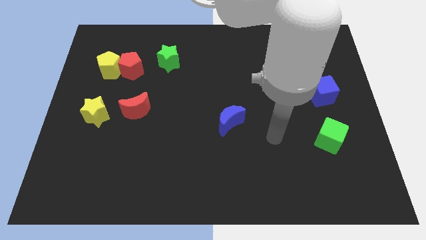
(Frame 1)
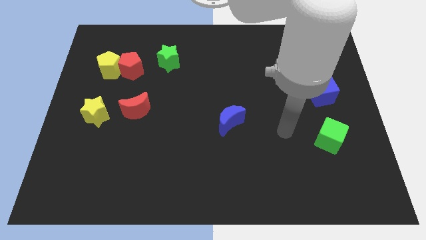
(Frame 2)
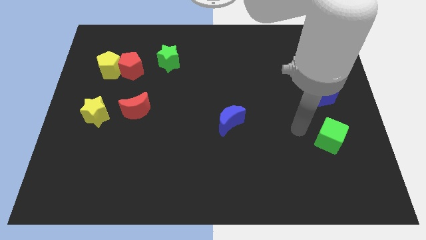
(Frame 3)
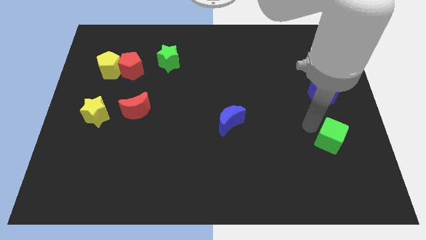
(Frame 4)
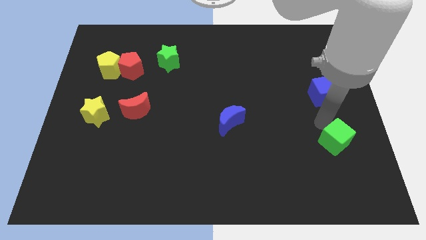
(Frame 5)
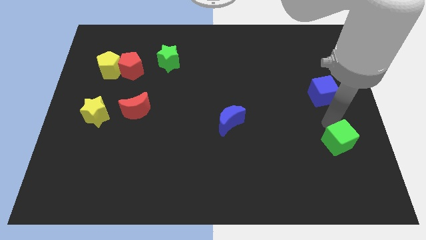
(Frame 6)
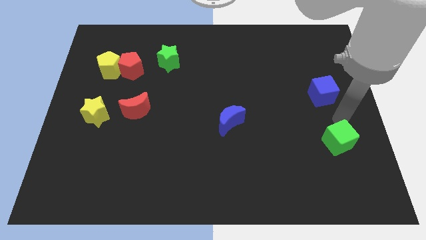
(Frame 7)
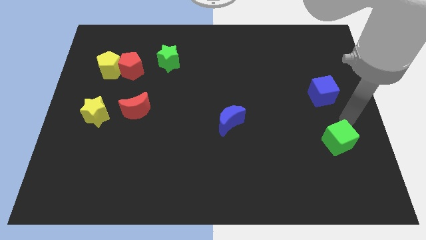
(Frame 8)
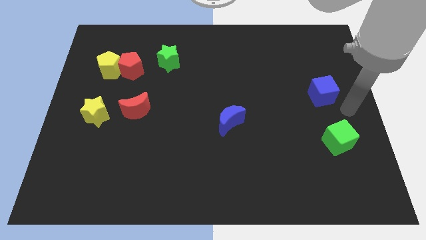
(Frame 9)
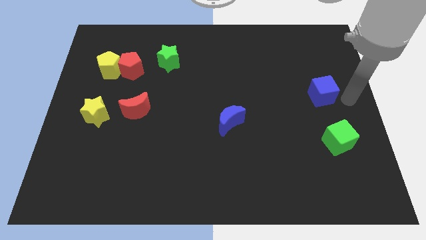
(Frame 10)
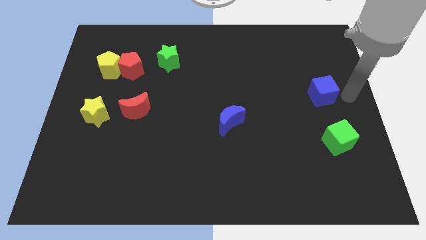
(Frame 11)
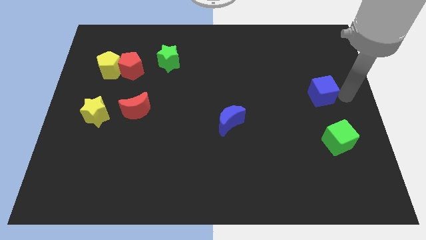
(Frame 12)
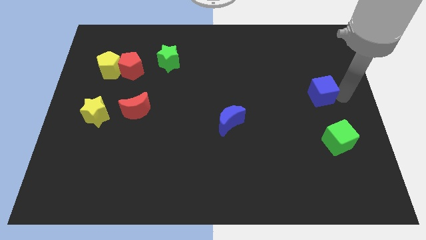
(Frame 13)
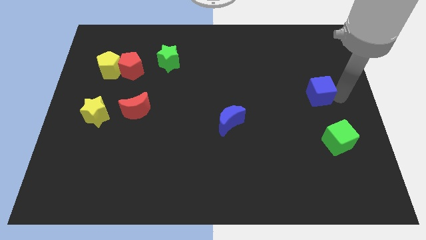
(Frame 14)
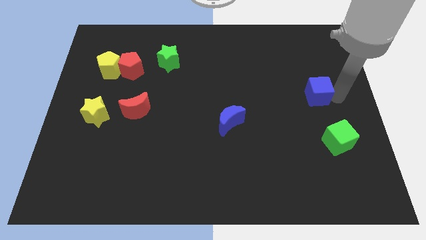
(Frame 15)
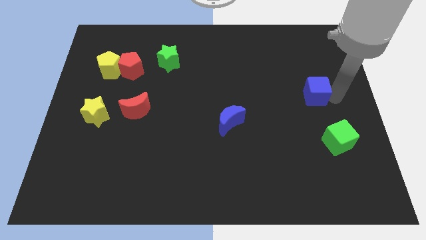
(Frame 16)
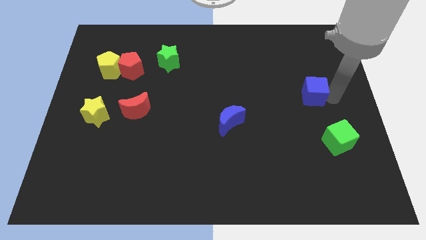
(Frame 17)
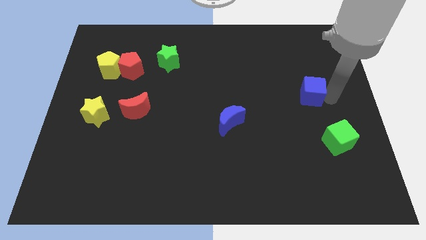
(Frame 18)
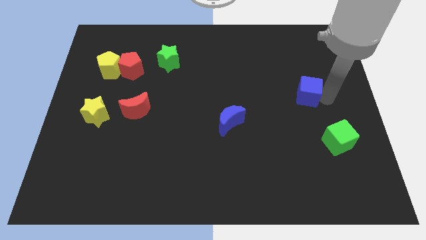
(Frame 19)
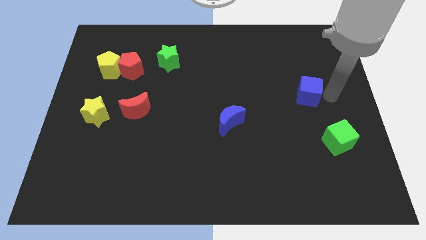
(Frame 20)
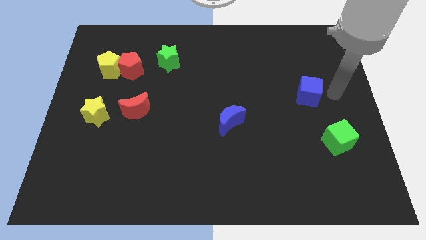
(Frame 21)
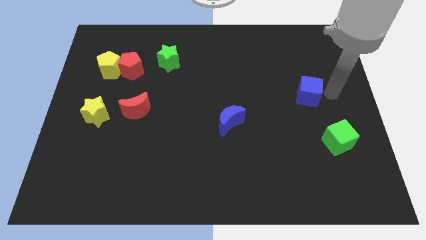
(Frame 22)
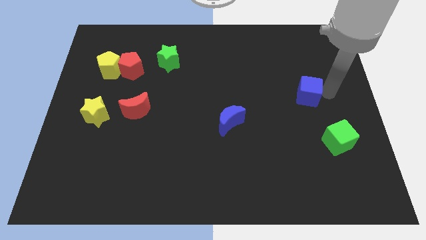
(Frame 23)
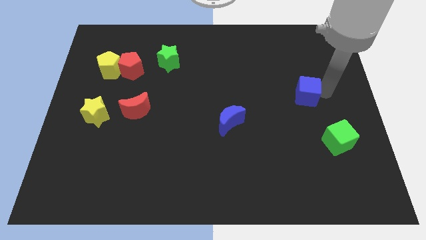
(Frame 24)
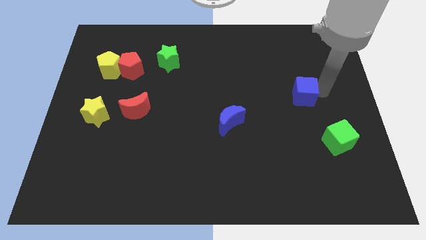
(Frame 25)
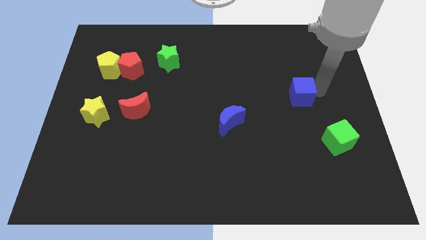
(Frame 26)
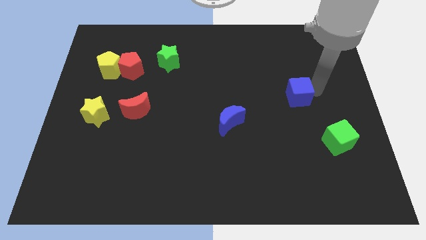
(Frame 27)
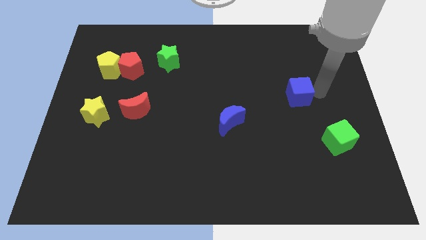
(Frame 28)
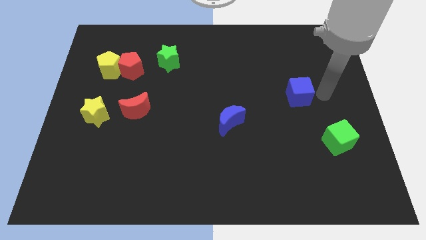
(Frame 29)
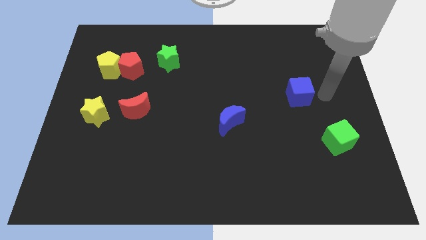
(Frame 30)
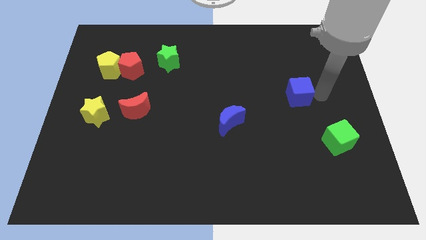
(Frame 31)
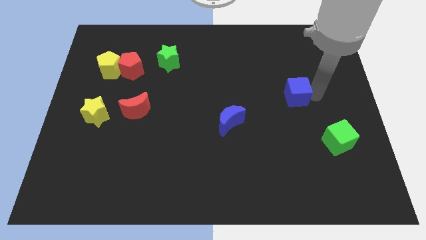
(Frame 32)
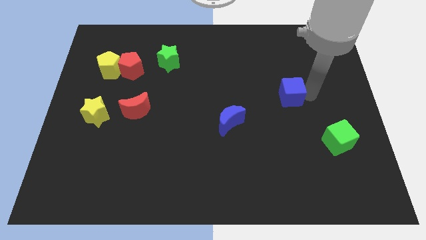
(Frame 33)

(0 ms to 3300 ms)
slide the blue cube left a bit

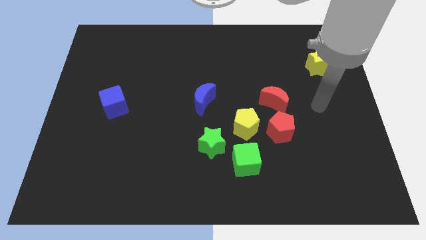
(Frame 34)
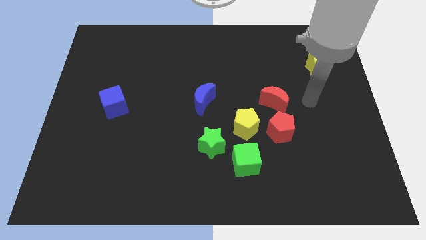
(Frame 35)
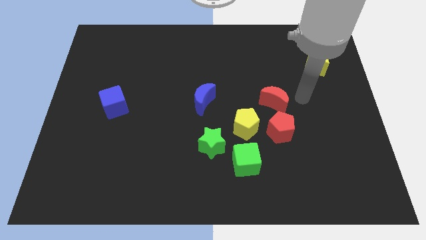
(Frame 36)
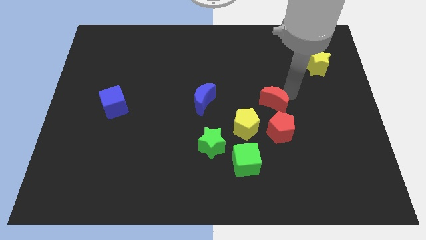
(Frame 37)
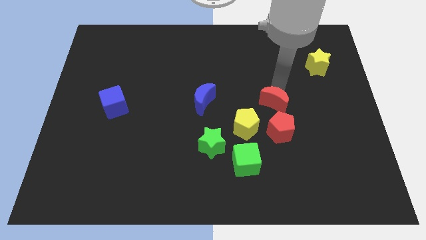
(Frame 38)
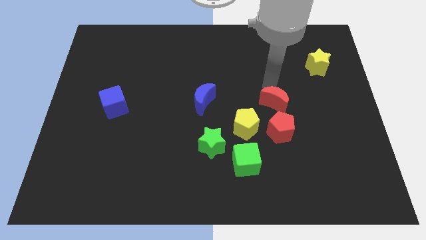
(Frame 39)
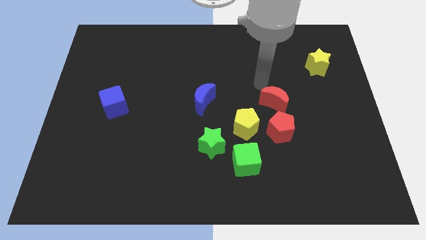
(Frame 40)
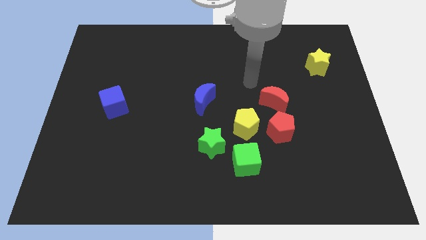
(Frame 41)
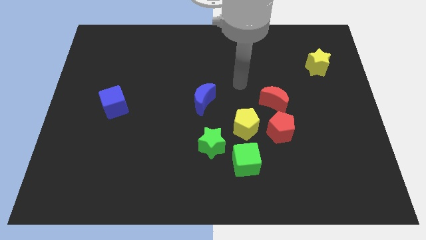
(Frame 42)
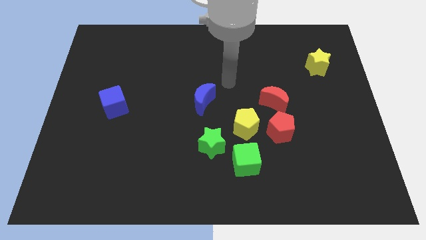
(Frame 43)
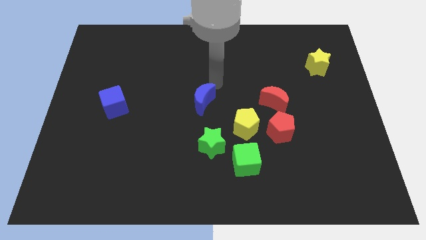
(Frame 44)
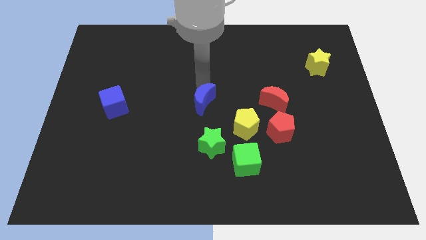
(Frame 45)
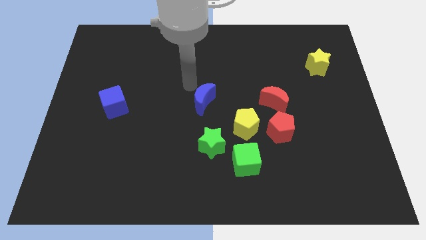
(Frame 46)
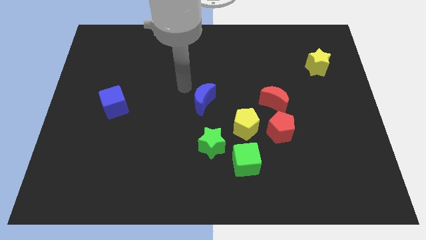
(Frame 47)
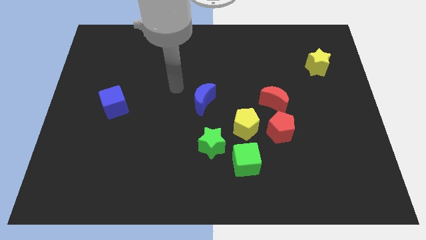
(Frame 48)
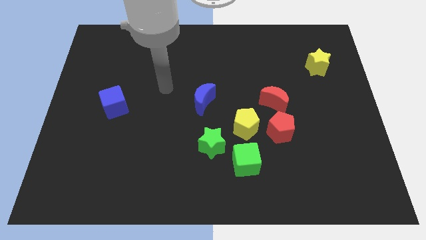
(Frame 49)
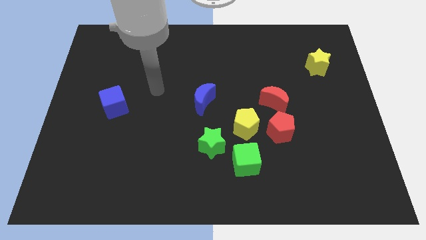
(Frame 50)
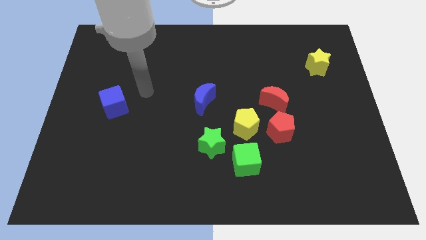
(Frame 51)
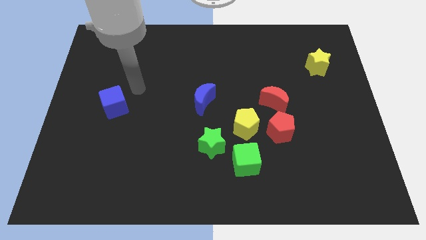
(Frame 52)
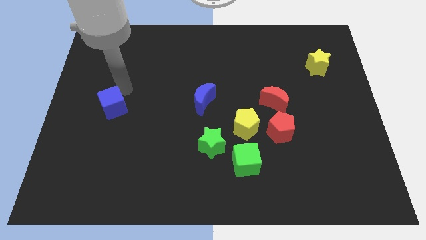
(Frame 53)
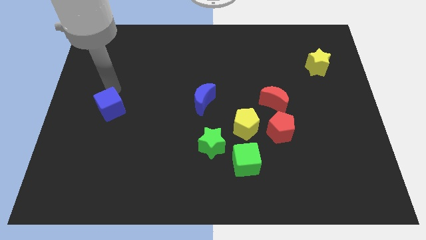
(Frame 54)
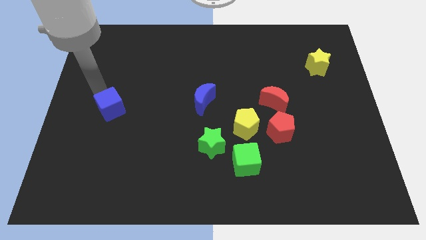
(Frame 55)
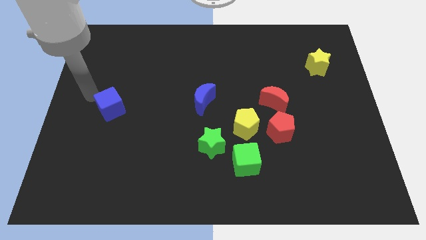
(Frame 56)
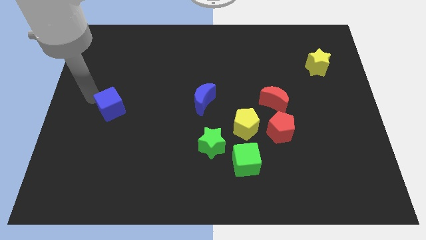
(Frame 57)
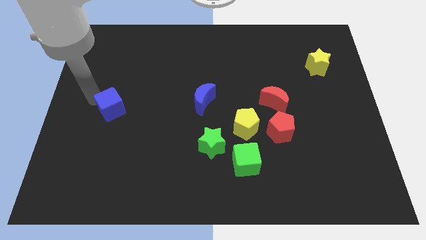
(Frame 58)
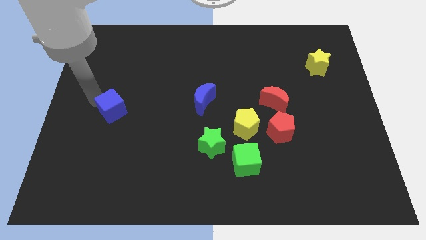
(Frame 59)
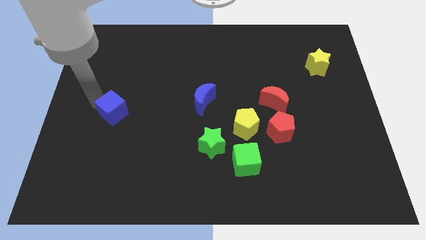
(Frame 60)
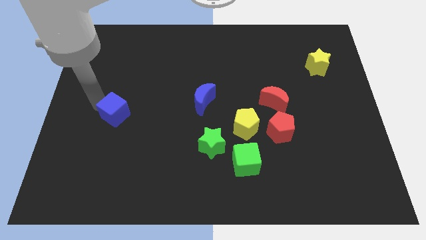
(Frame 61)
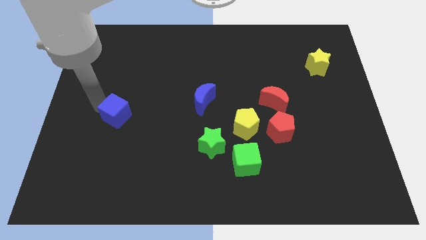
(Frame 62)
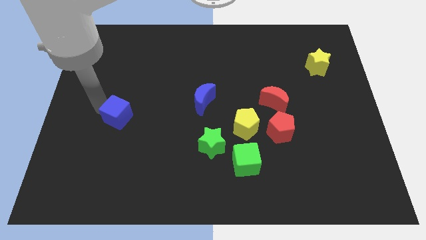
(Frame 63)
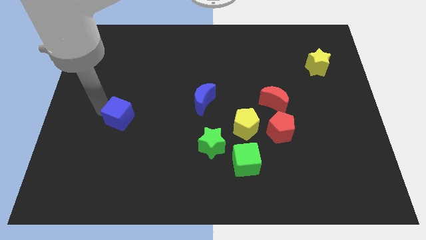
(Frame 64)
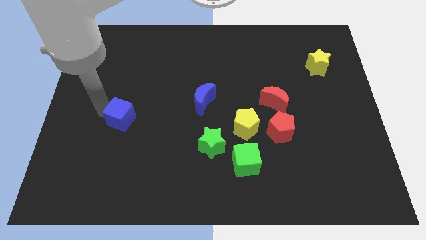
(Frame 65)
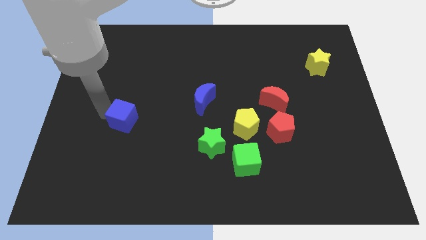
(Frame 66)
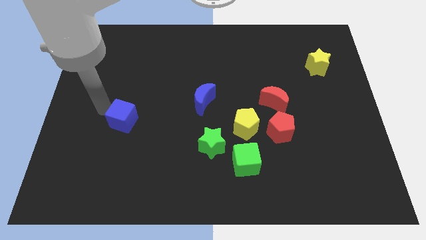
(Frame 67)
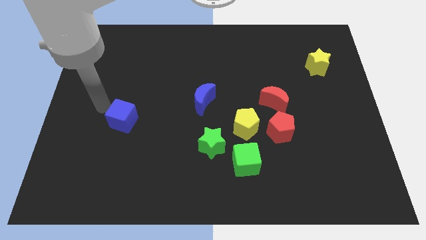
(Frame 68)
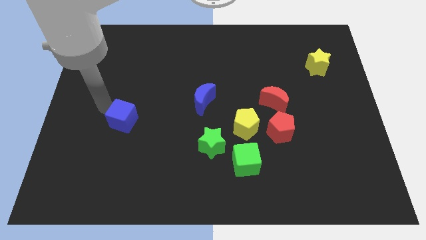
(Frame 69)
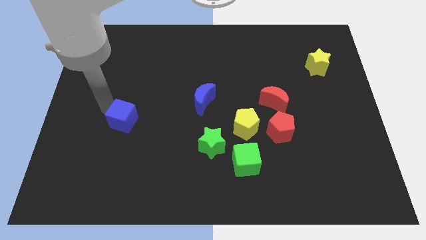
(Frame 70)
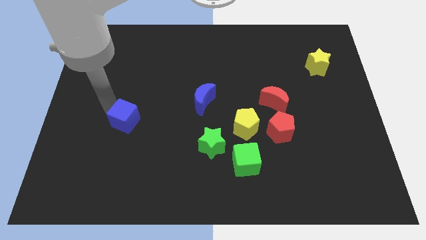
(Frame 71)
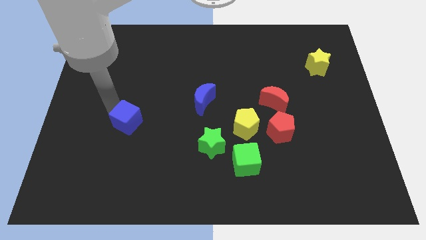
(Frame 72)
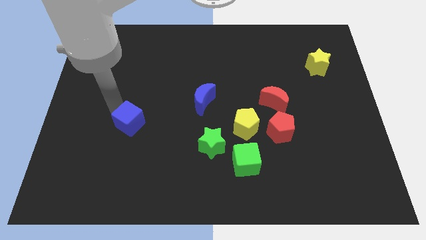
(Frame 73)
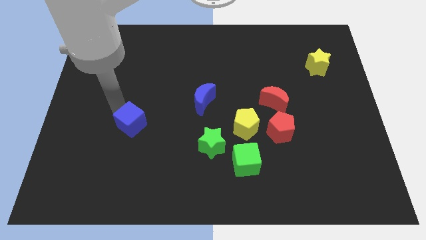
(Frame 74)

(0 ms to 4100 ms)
push the blue cube downwards and to the right diagonally a bit

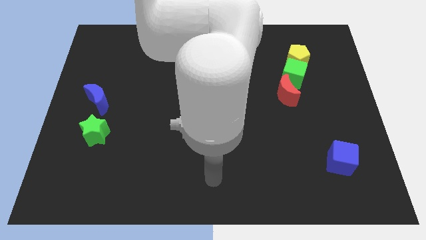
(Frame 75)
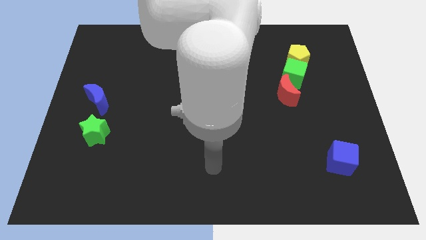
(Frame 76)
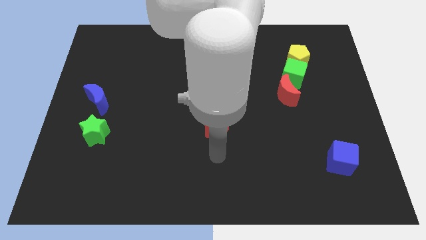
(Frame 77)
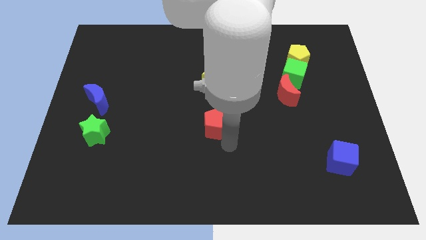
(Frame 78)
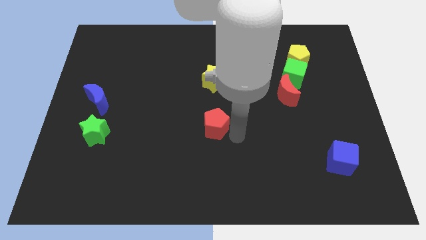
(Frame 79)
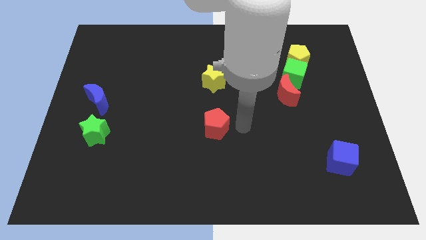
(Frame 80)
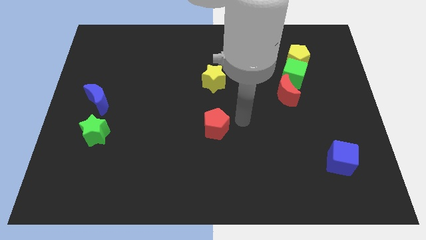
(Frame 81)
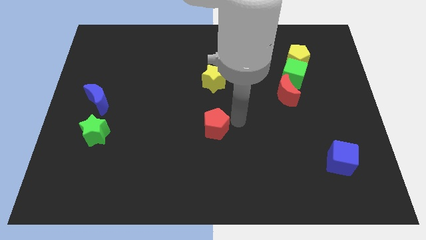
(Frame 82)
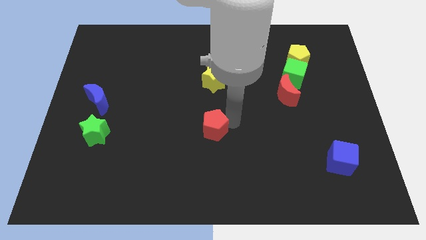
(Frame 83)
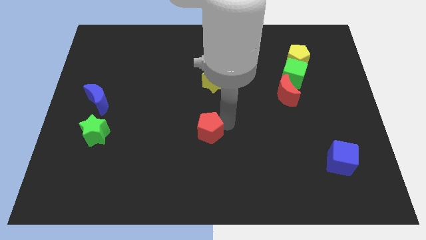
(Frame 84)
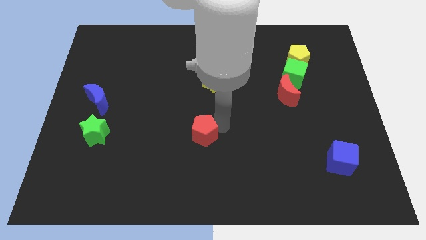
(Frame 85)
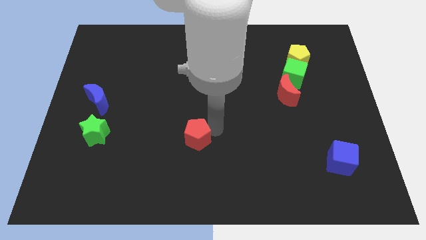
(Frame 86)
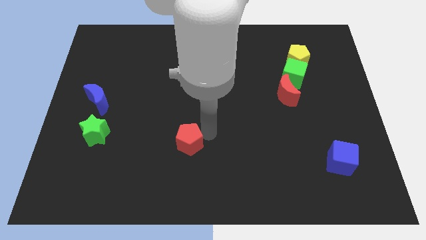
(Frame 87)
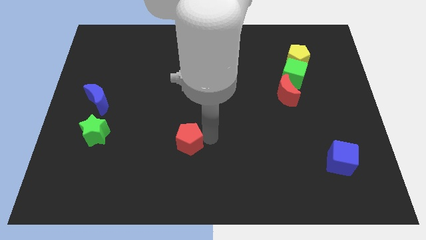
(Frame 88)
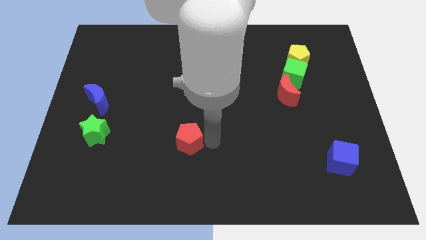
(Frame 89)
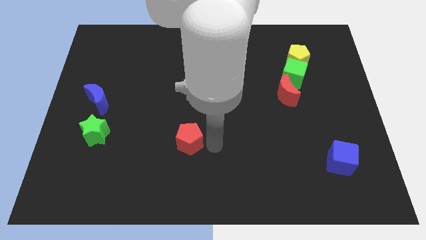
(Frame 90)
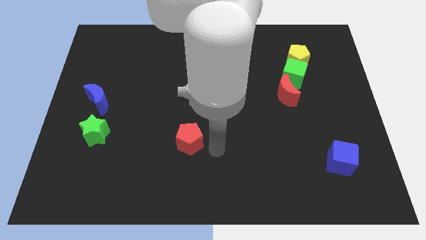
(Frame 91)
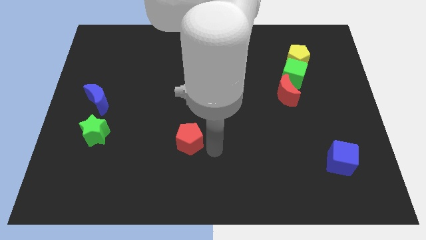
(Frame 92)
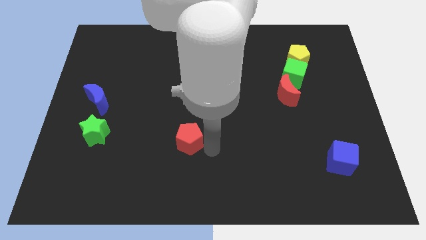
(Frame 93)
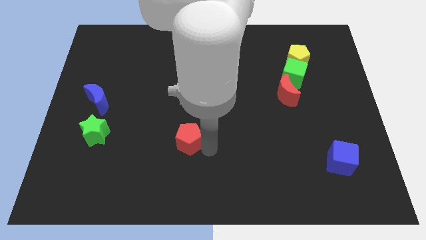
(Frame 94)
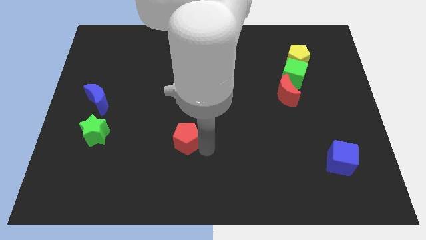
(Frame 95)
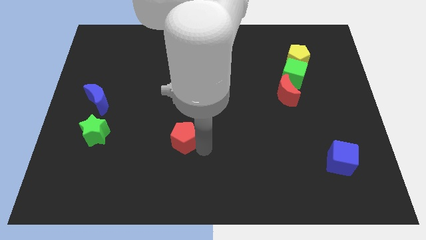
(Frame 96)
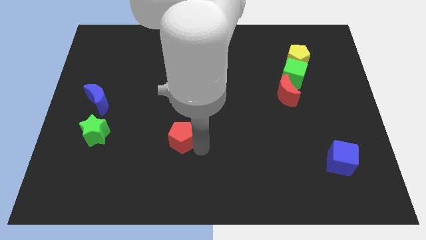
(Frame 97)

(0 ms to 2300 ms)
slightly slide the red pentagon left
